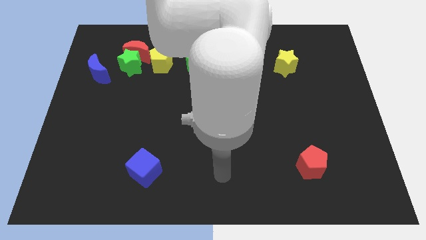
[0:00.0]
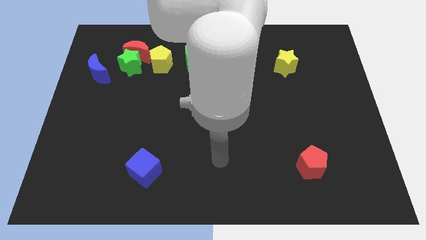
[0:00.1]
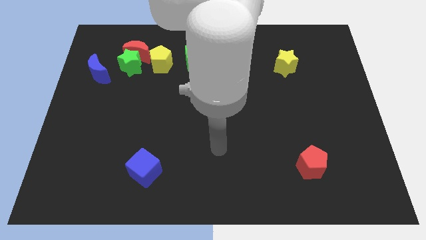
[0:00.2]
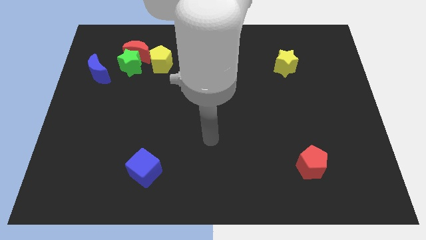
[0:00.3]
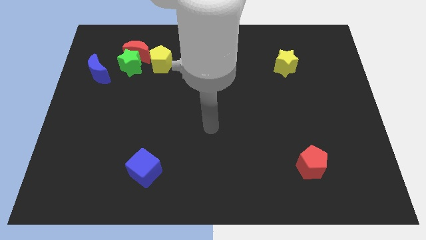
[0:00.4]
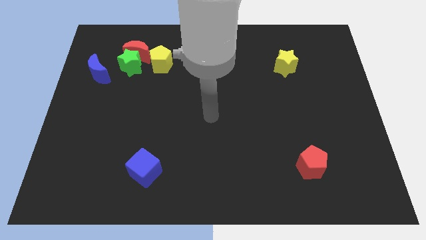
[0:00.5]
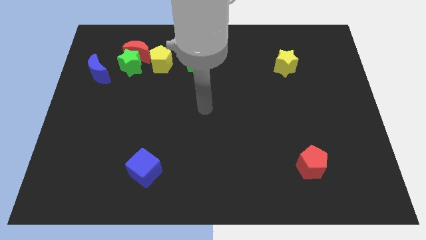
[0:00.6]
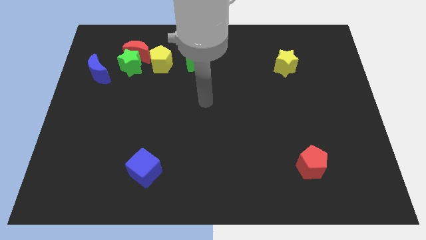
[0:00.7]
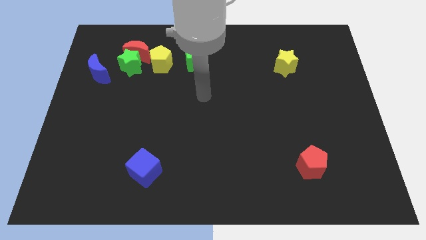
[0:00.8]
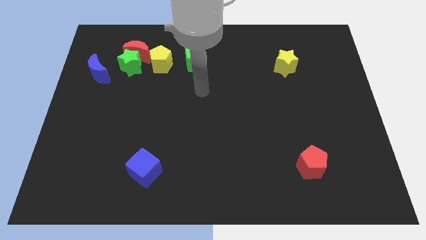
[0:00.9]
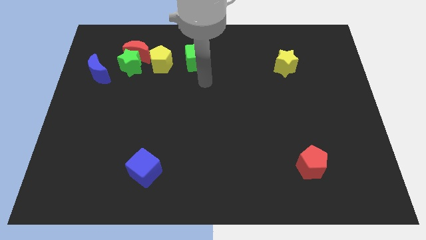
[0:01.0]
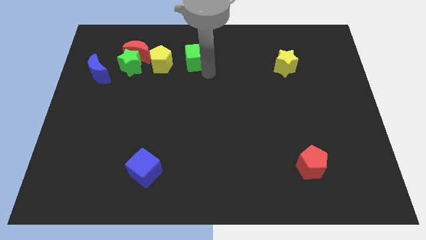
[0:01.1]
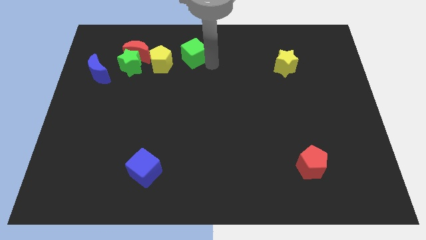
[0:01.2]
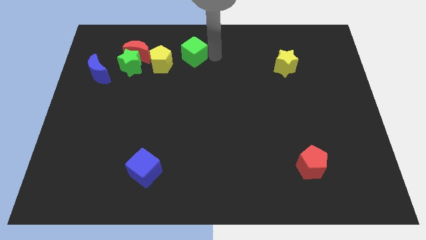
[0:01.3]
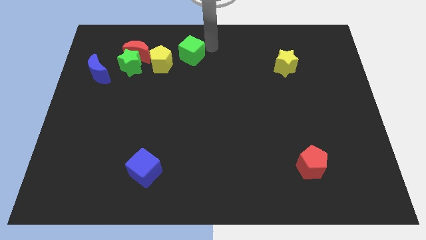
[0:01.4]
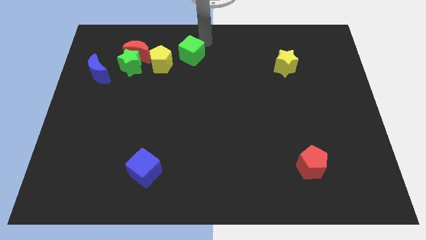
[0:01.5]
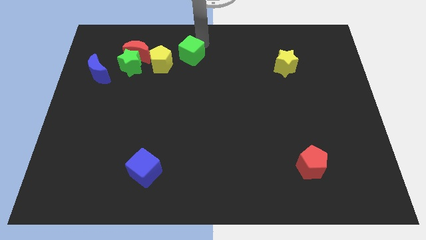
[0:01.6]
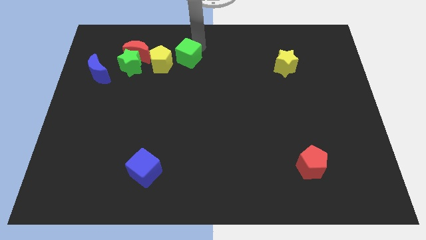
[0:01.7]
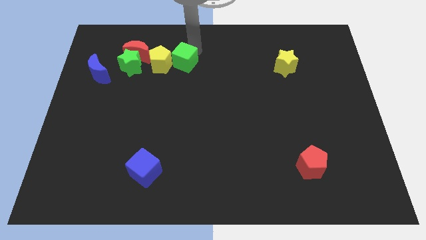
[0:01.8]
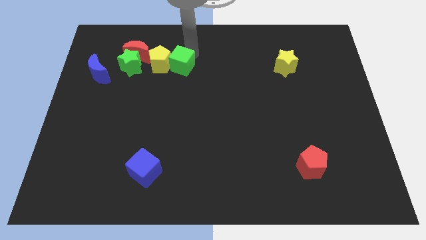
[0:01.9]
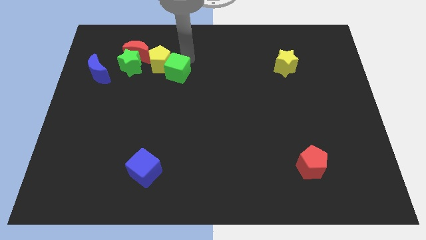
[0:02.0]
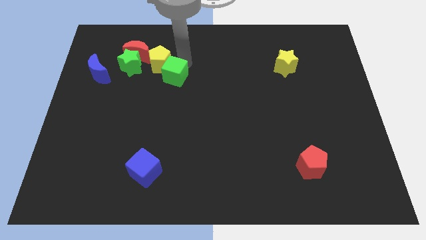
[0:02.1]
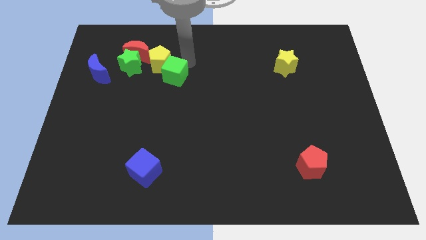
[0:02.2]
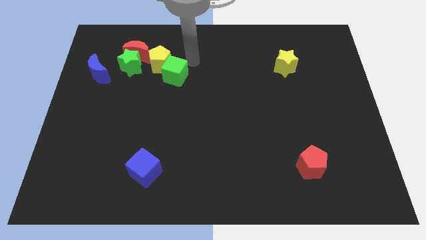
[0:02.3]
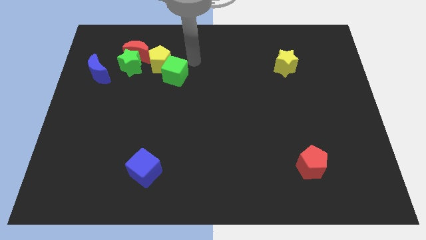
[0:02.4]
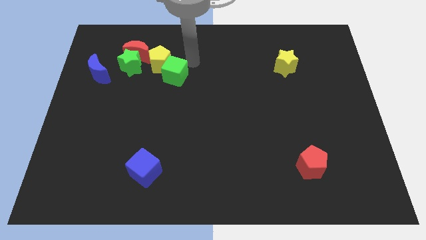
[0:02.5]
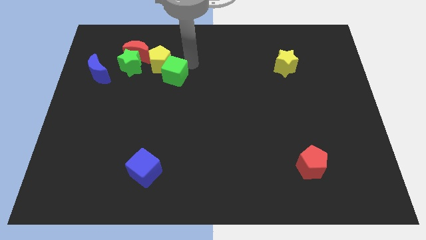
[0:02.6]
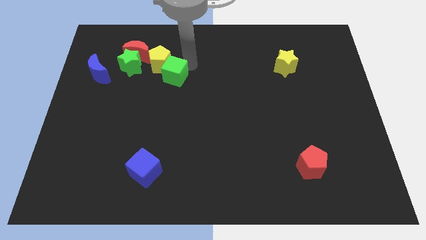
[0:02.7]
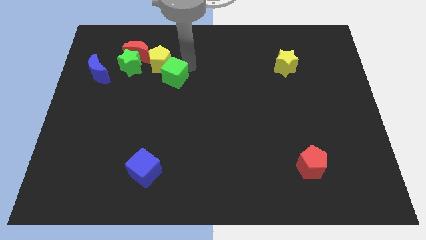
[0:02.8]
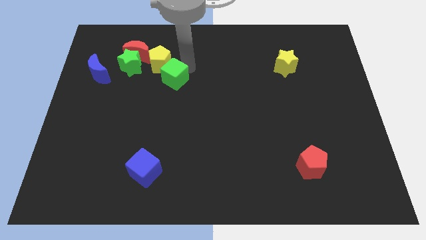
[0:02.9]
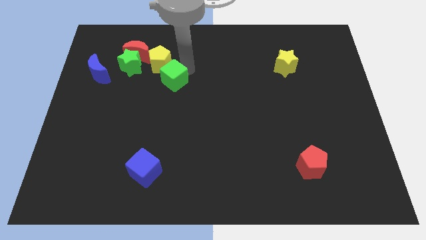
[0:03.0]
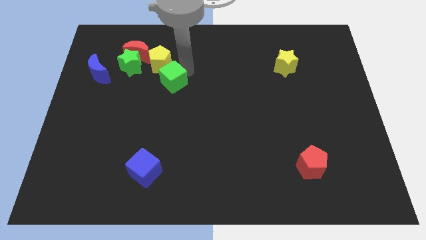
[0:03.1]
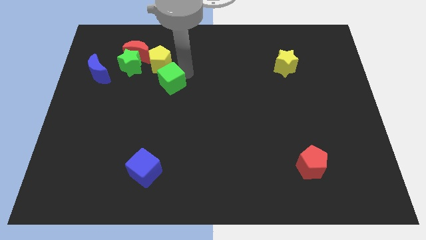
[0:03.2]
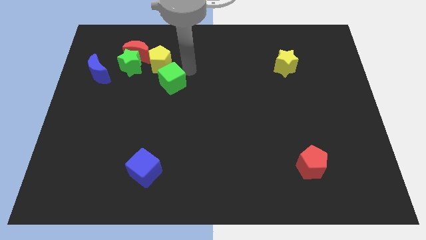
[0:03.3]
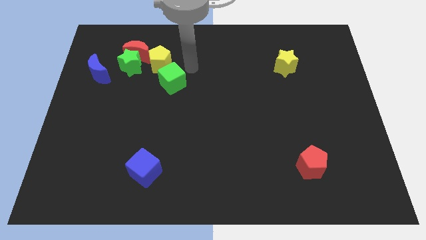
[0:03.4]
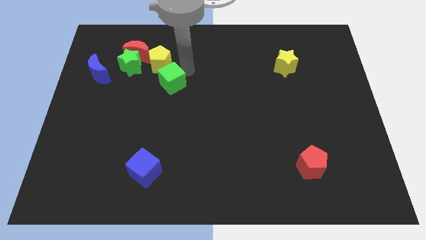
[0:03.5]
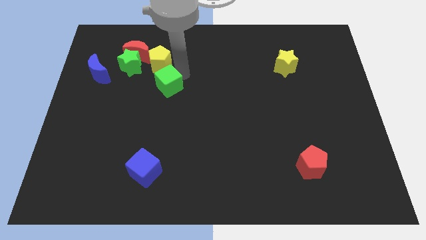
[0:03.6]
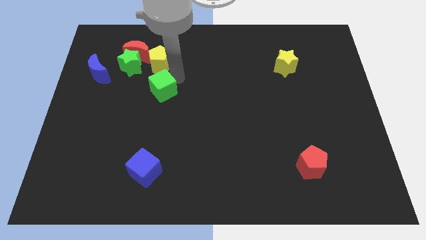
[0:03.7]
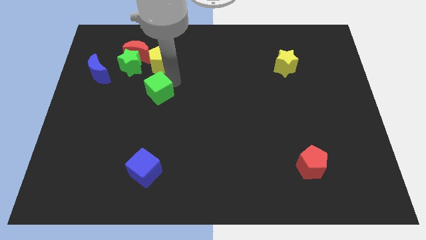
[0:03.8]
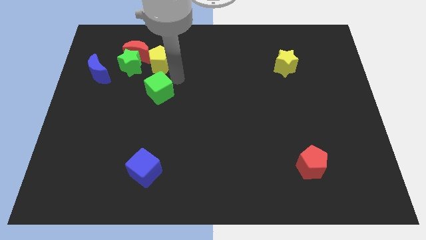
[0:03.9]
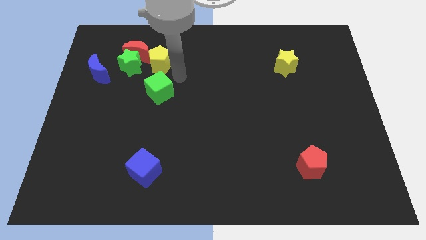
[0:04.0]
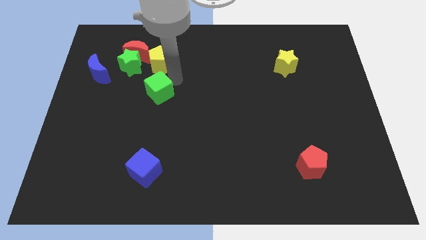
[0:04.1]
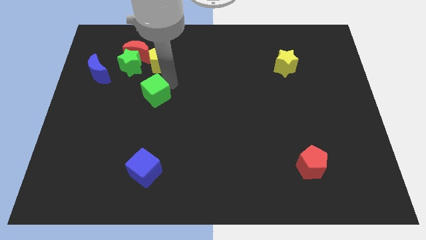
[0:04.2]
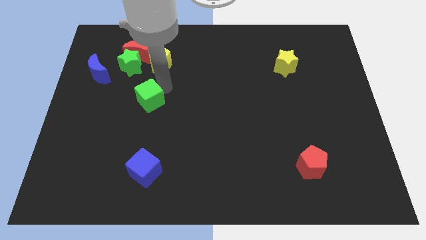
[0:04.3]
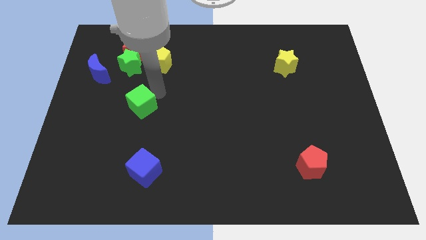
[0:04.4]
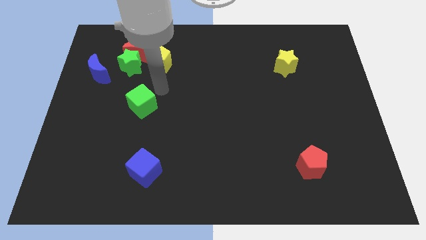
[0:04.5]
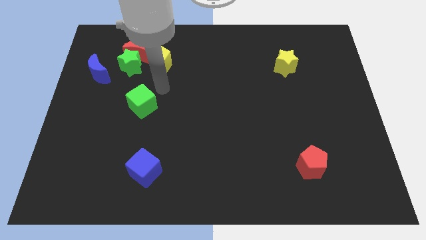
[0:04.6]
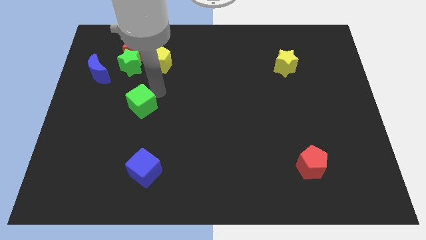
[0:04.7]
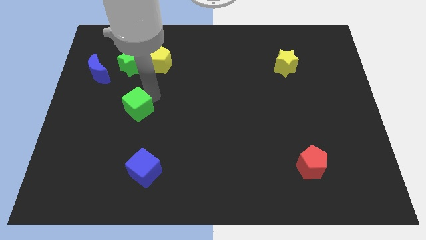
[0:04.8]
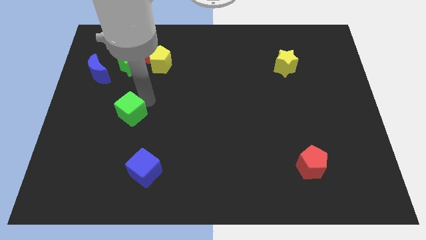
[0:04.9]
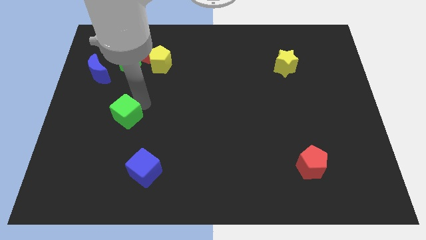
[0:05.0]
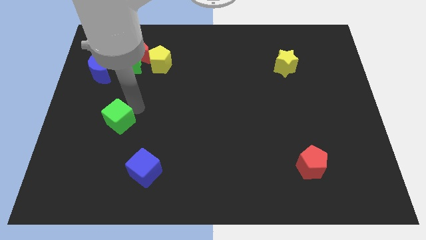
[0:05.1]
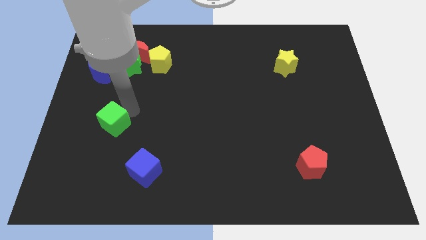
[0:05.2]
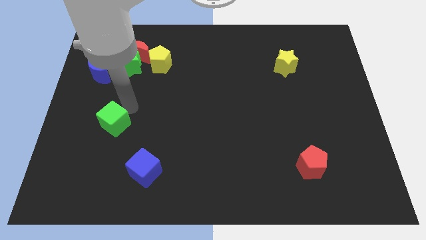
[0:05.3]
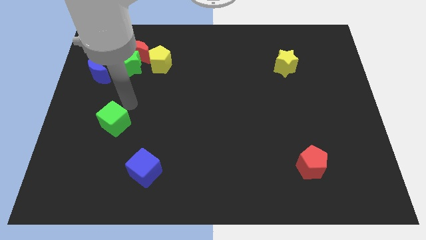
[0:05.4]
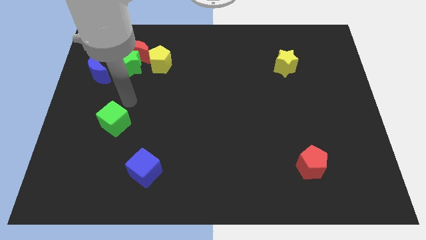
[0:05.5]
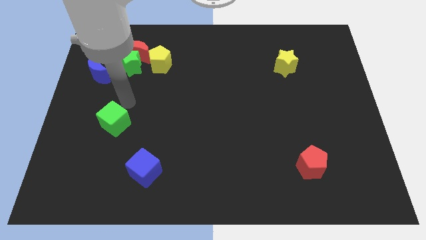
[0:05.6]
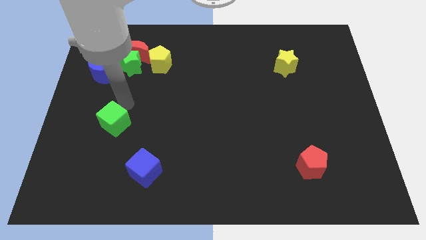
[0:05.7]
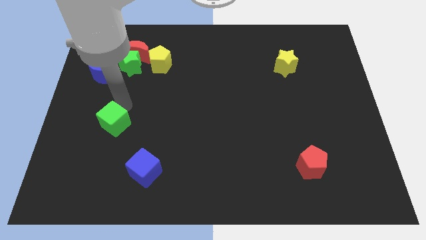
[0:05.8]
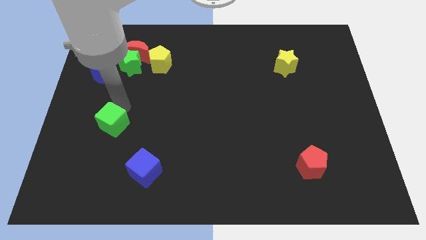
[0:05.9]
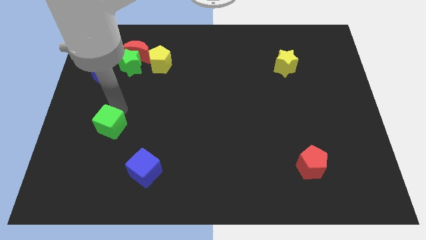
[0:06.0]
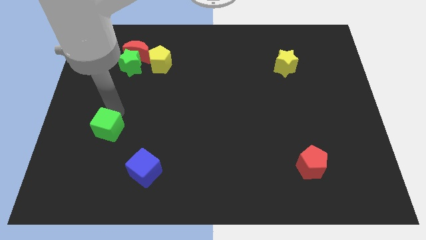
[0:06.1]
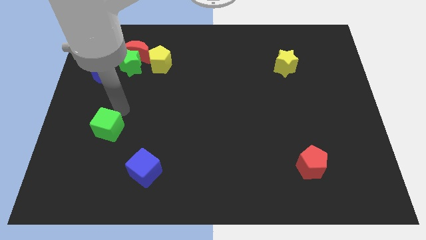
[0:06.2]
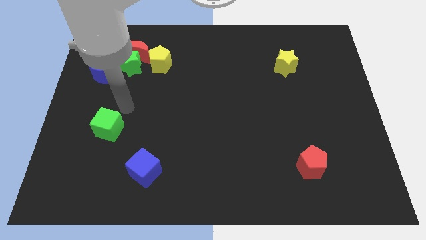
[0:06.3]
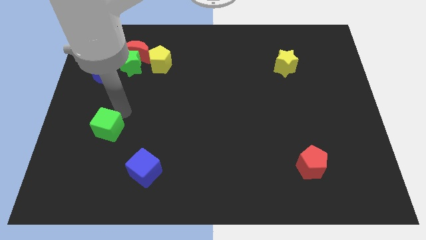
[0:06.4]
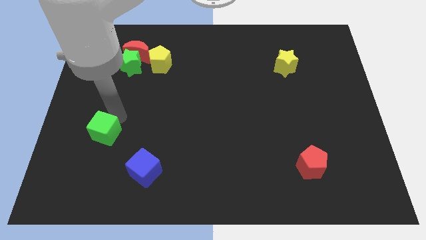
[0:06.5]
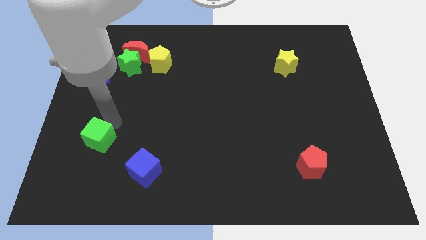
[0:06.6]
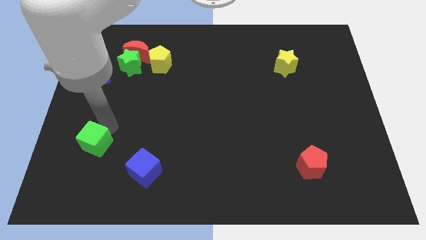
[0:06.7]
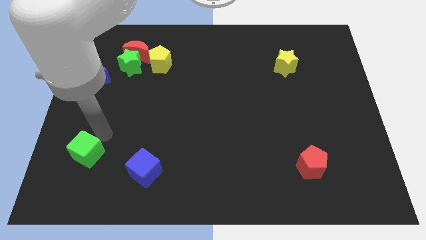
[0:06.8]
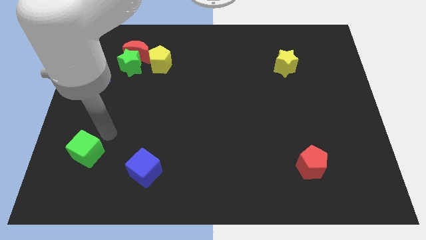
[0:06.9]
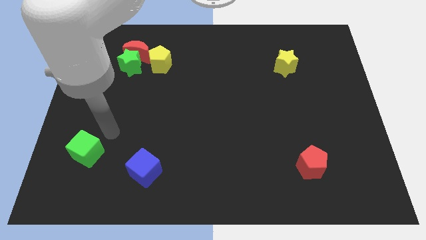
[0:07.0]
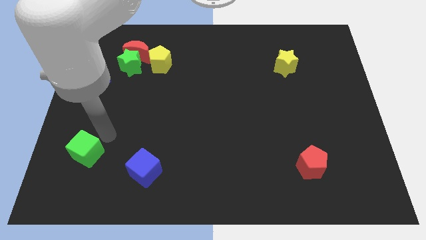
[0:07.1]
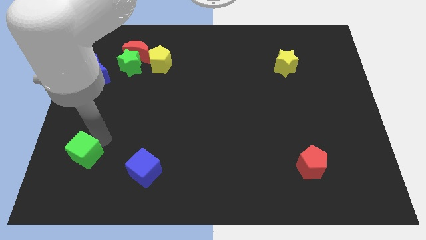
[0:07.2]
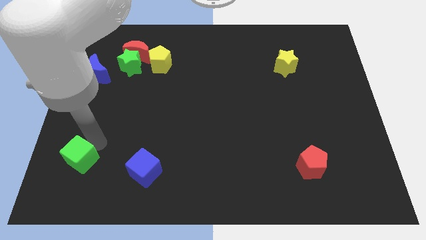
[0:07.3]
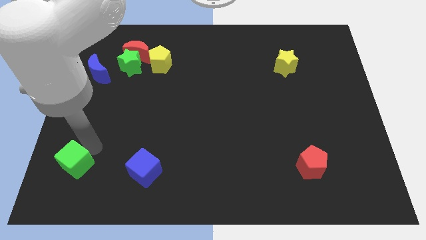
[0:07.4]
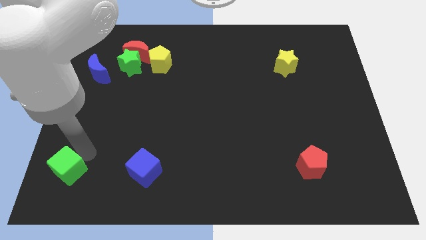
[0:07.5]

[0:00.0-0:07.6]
move the green cube to the lower left corner
